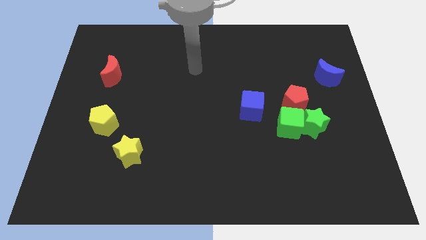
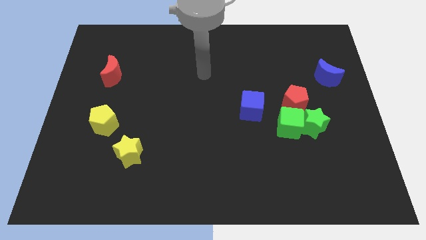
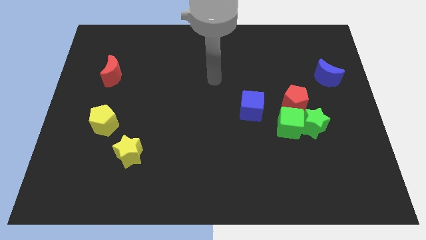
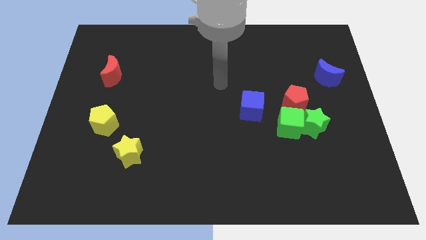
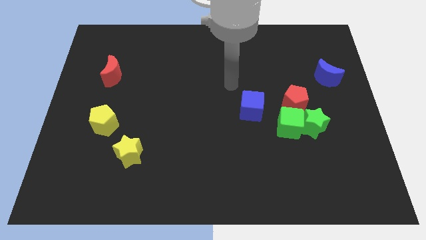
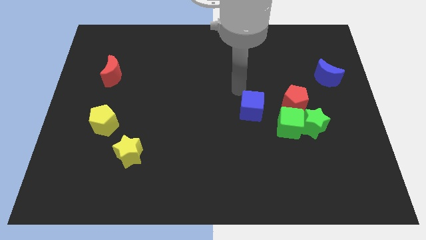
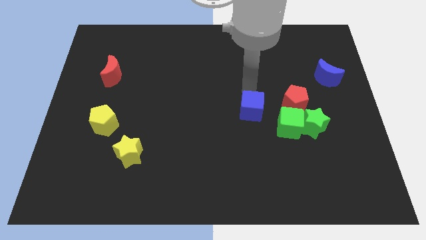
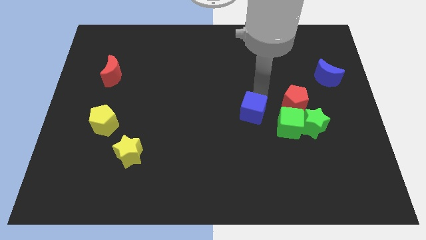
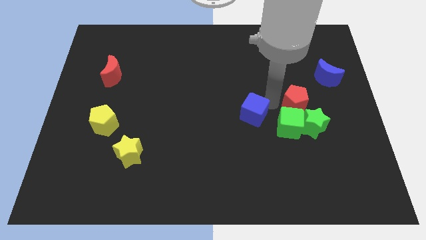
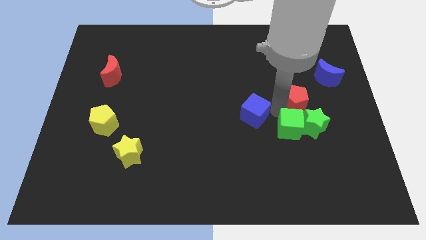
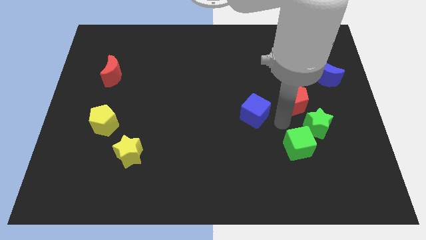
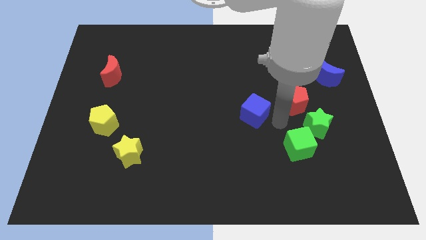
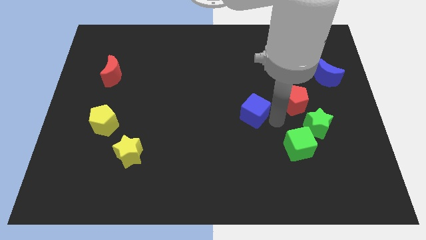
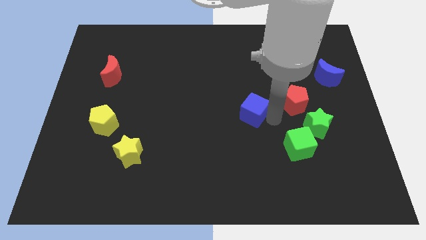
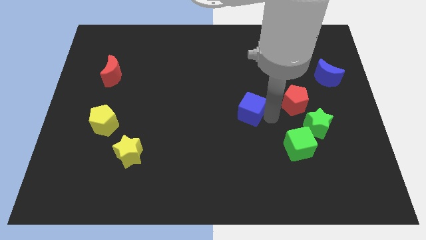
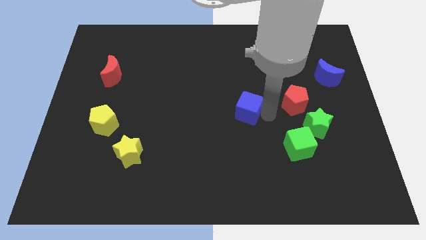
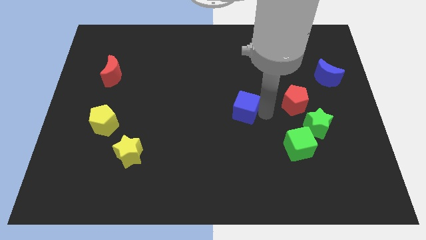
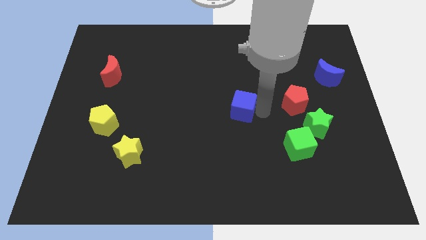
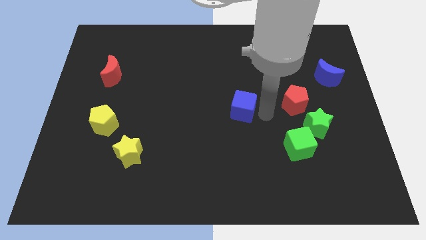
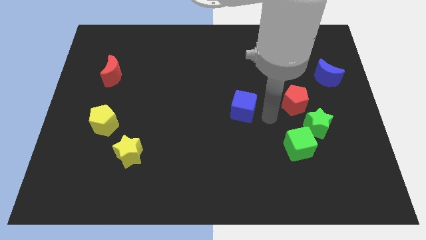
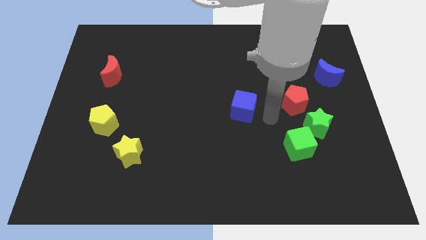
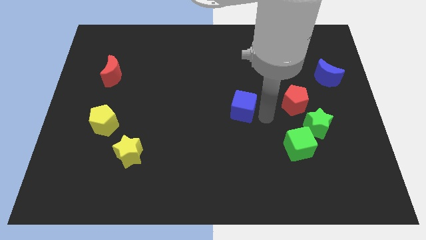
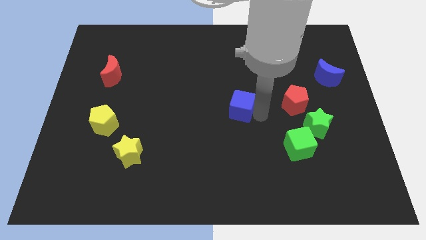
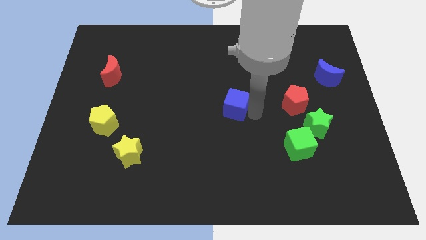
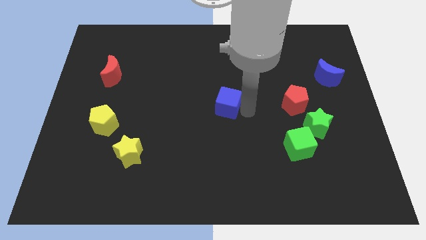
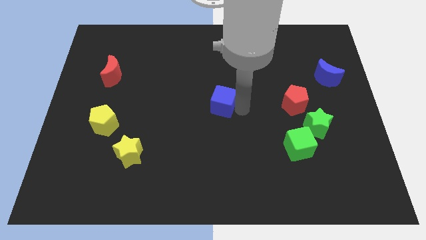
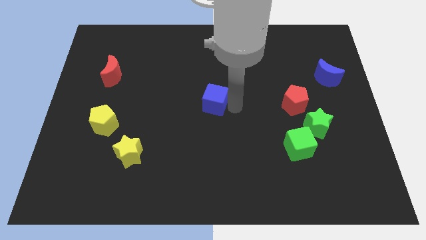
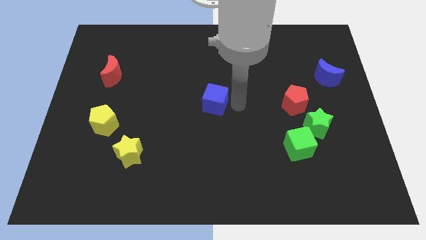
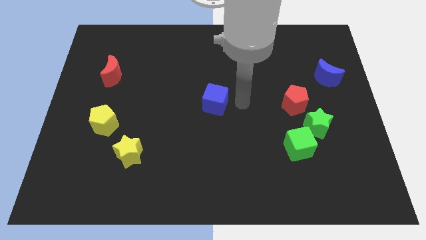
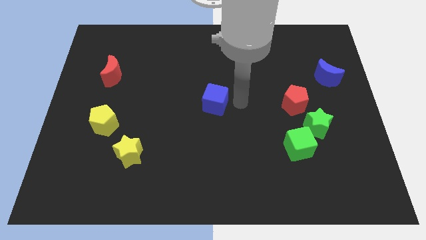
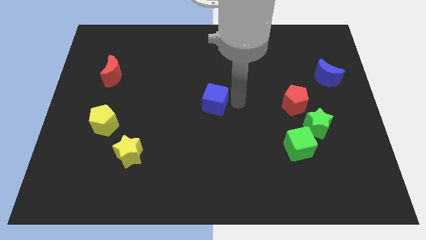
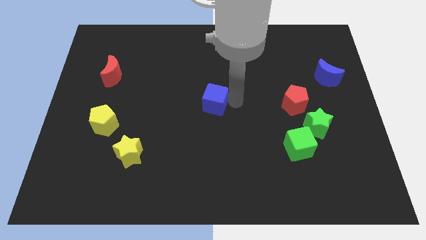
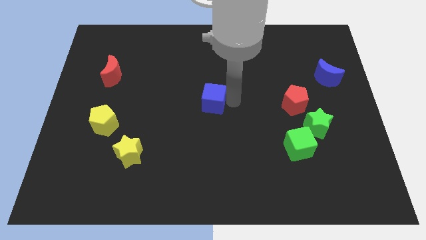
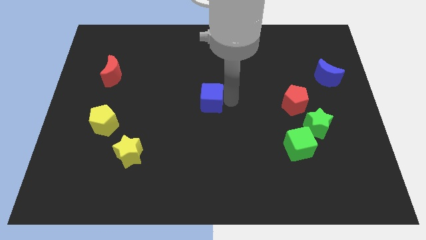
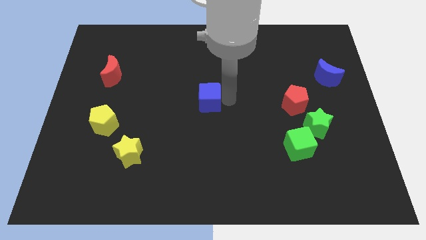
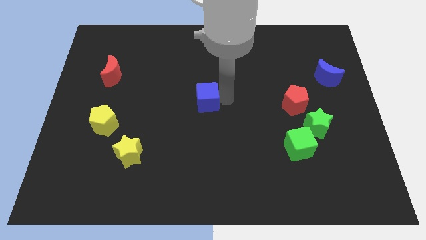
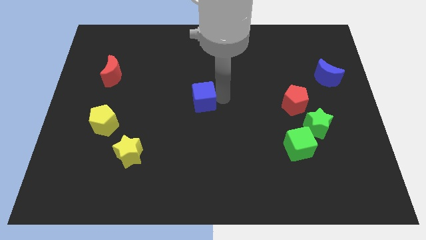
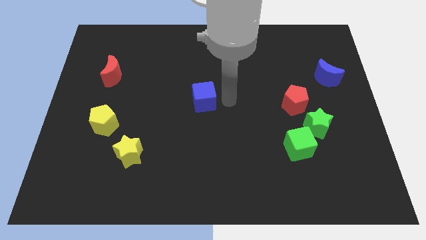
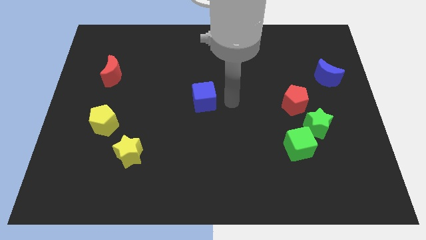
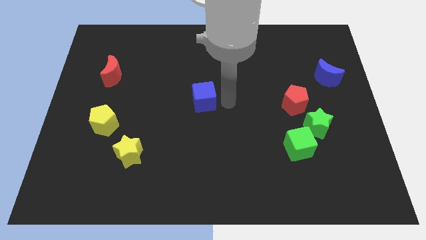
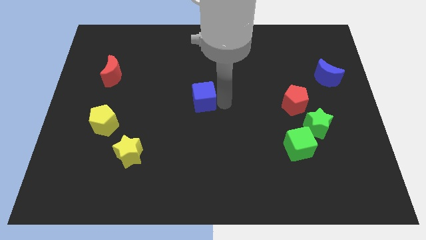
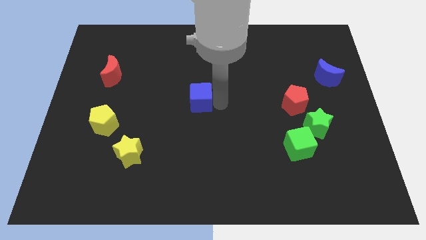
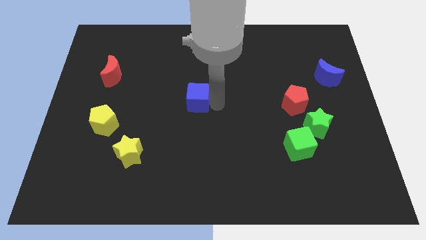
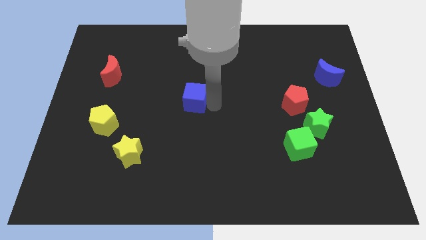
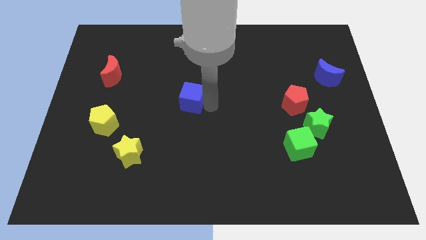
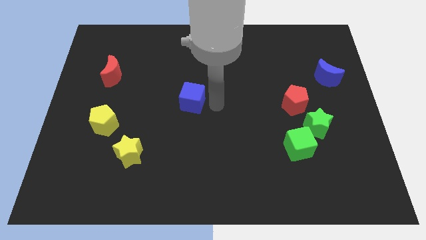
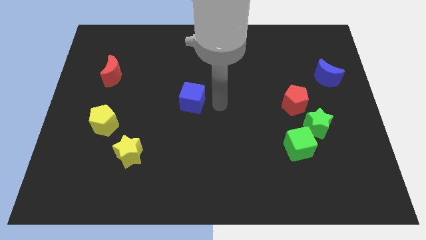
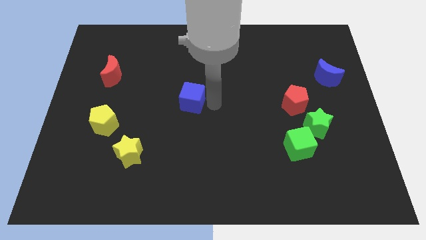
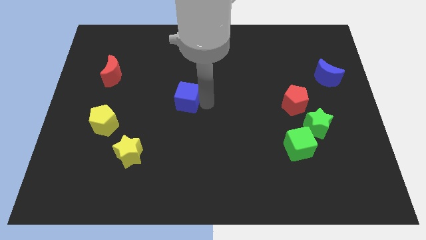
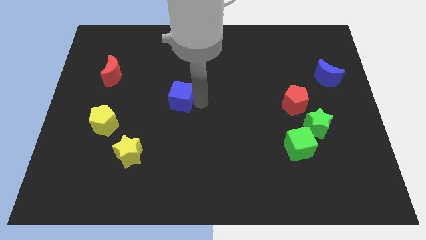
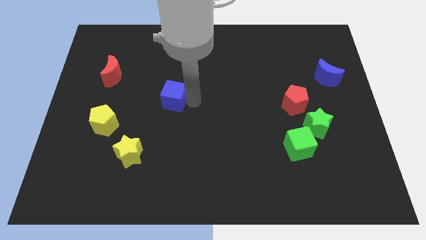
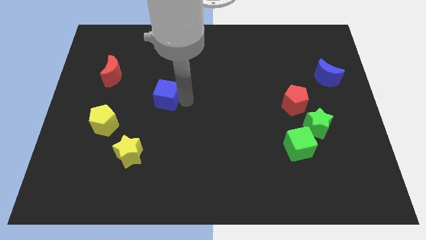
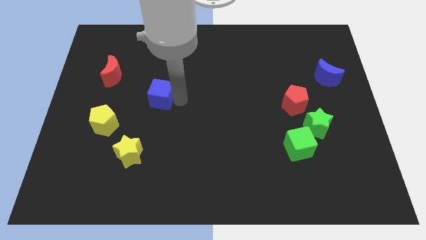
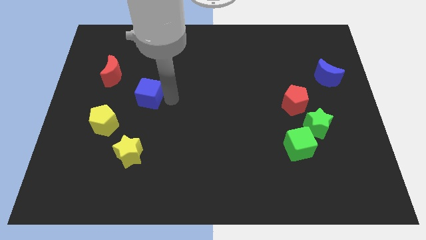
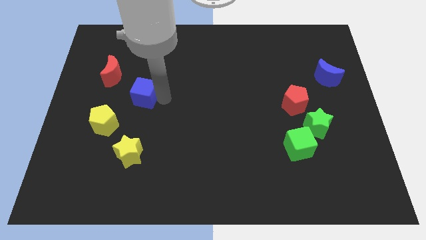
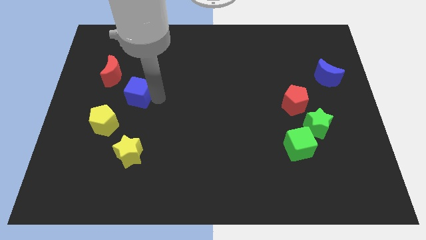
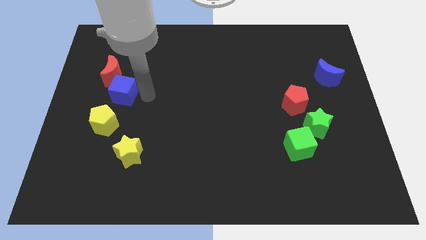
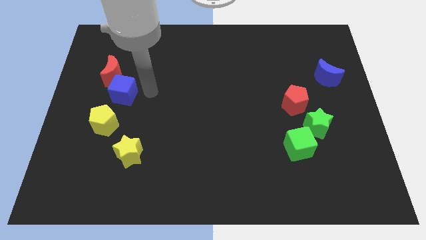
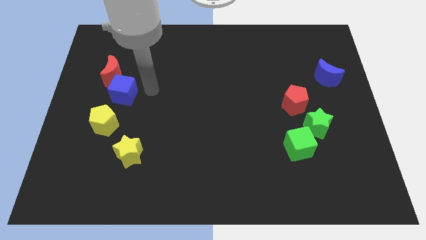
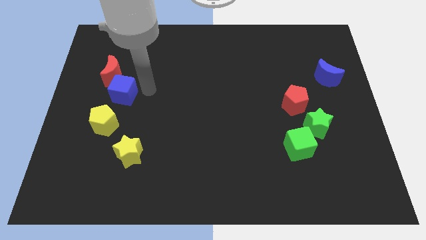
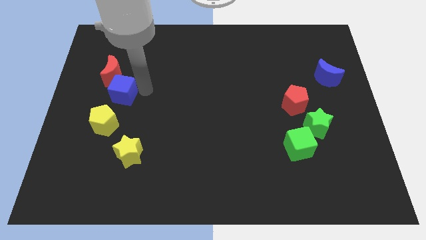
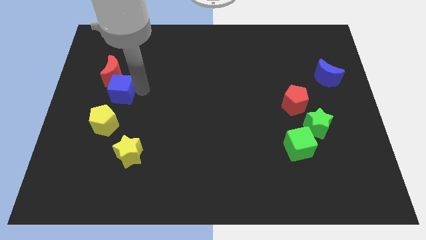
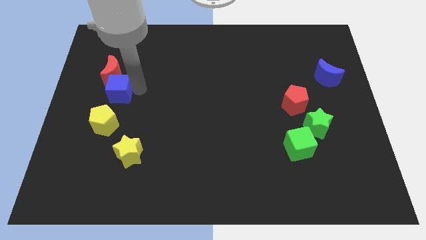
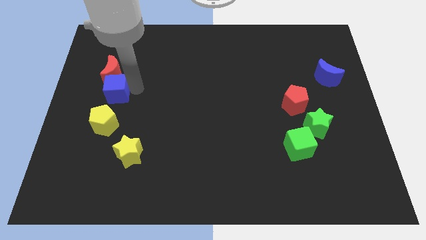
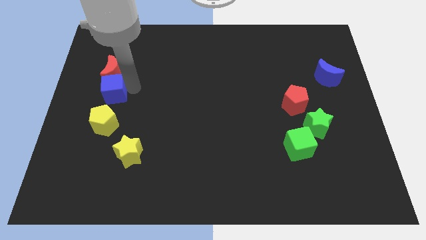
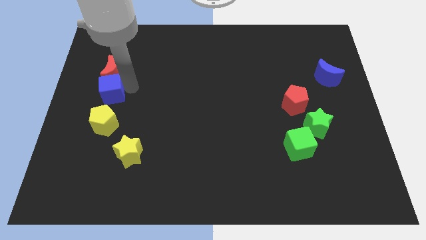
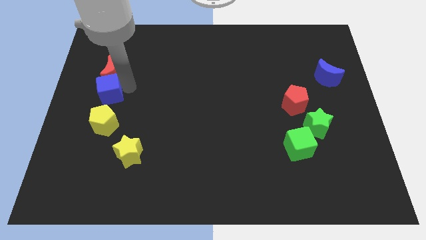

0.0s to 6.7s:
push the blue cube to the center left
